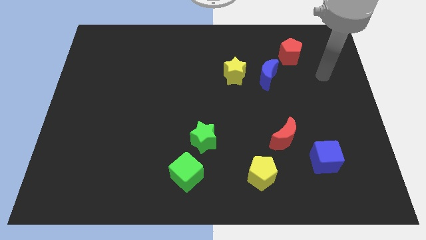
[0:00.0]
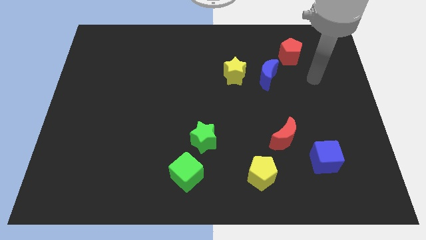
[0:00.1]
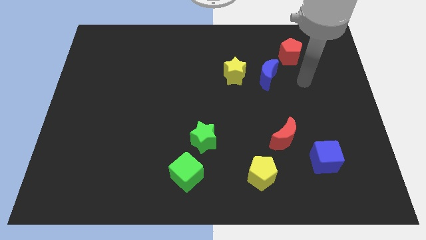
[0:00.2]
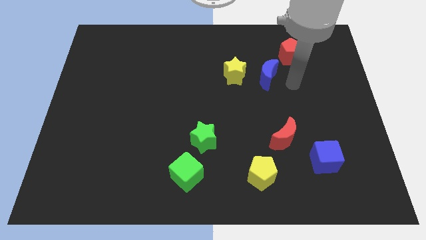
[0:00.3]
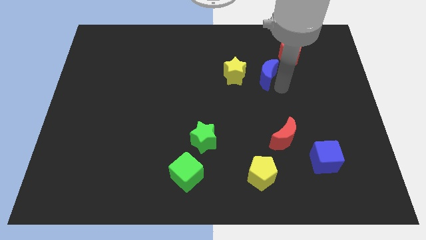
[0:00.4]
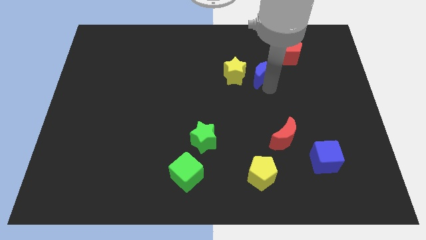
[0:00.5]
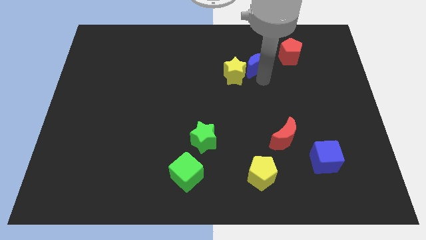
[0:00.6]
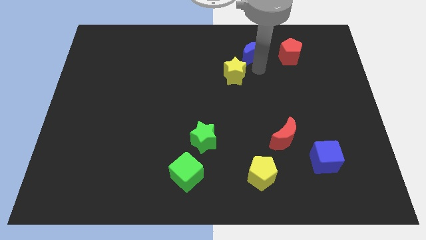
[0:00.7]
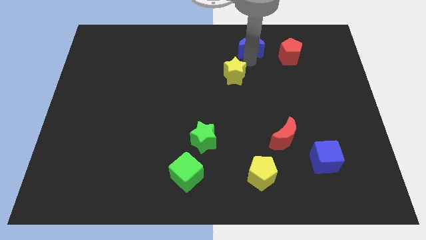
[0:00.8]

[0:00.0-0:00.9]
move the yellow star away from the blue moon

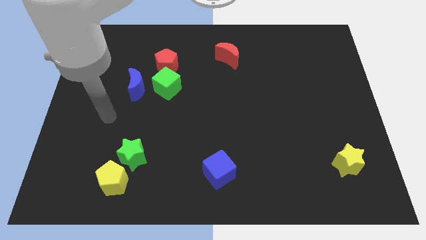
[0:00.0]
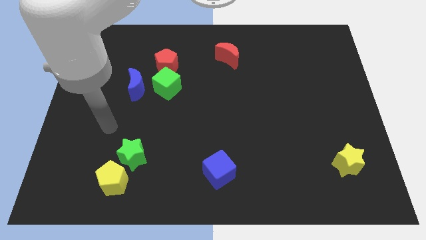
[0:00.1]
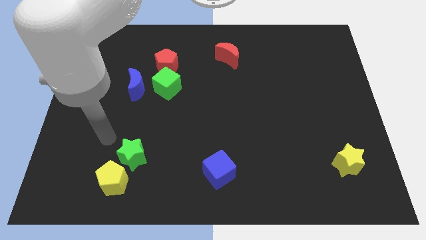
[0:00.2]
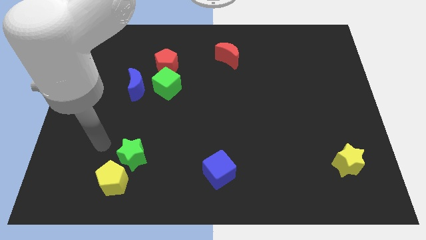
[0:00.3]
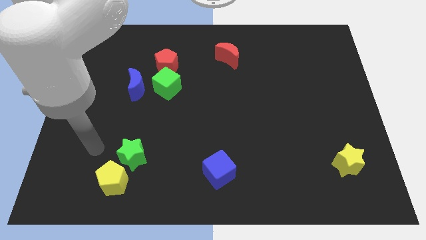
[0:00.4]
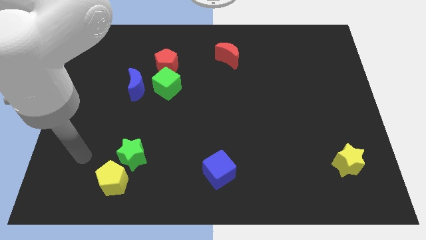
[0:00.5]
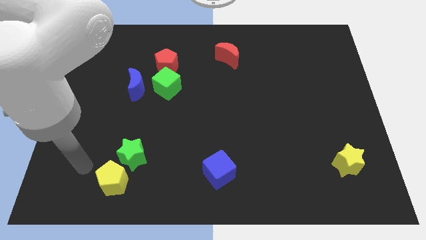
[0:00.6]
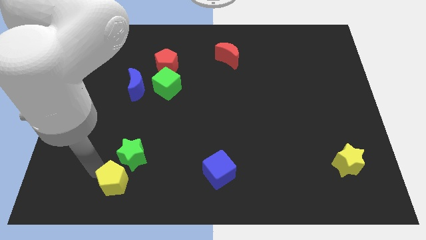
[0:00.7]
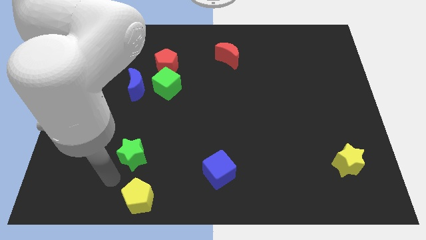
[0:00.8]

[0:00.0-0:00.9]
pull the green star apart from the yellow pentagon

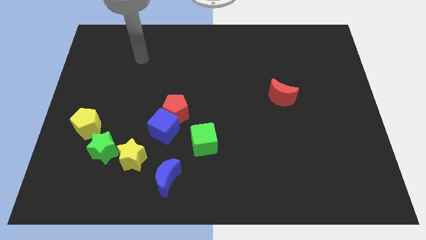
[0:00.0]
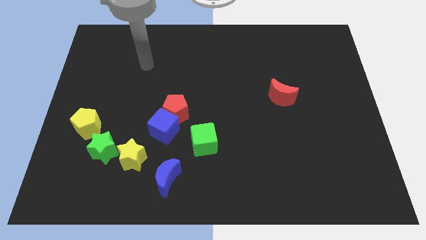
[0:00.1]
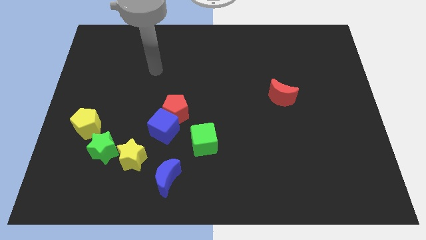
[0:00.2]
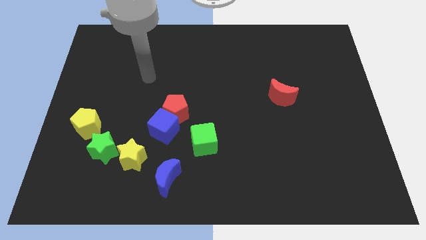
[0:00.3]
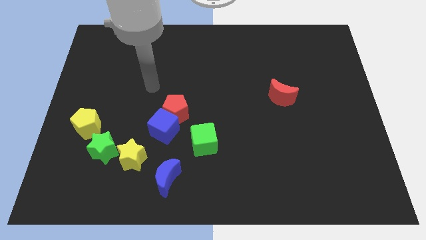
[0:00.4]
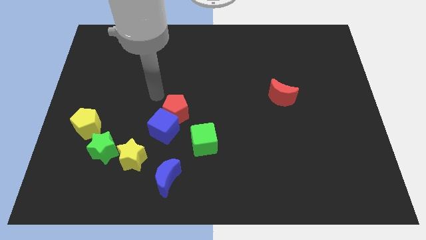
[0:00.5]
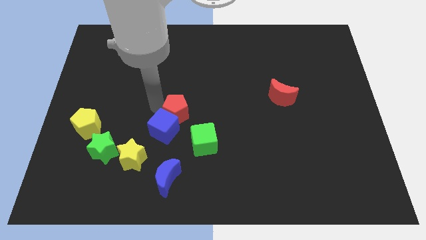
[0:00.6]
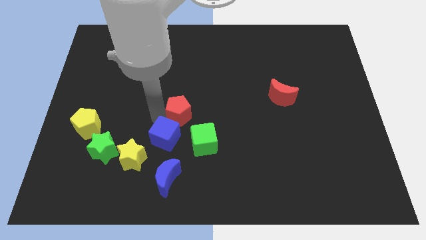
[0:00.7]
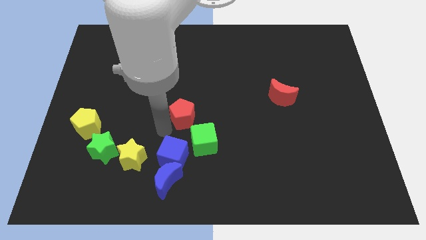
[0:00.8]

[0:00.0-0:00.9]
pull the red pentagon apart from the blue cube

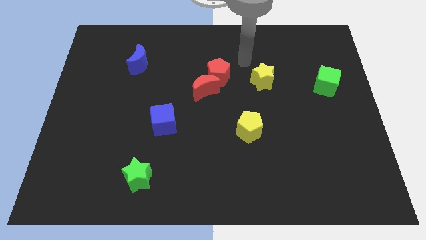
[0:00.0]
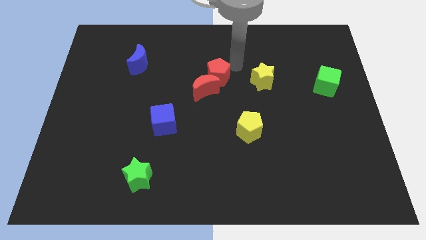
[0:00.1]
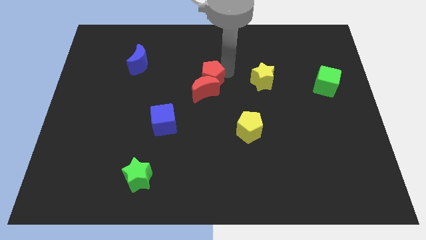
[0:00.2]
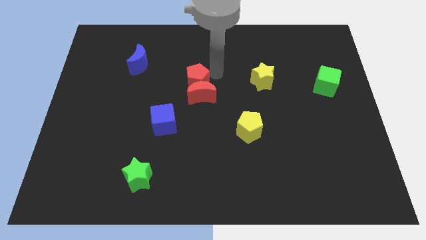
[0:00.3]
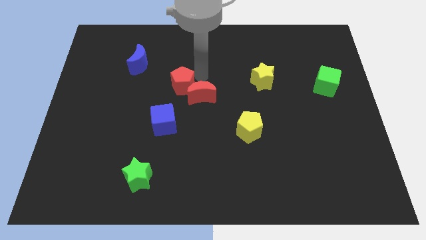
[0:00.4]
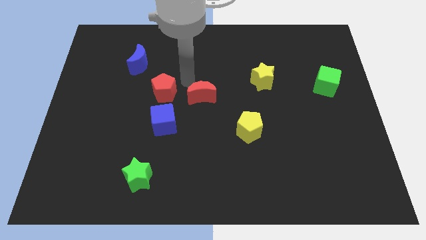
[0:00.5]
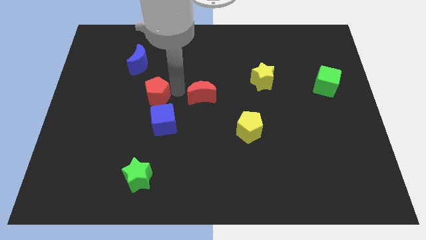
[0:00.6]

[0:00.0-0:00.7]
separate the red moon from the red pentagon

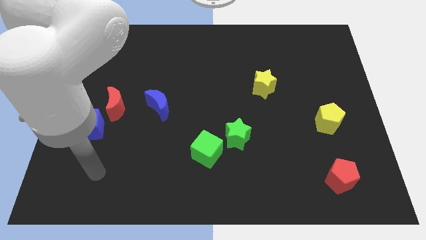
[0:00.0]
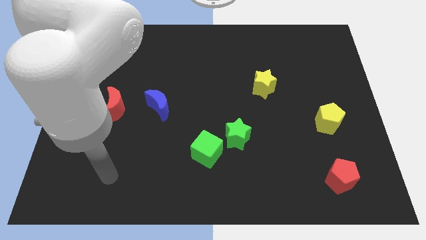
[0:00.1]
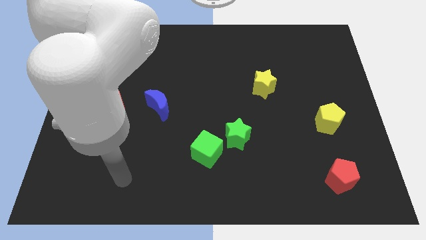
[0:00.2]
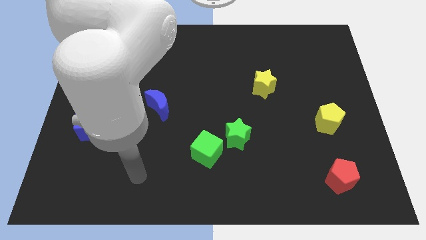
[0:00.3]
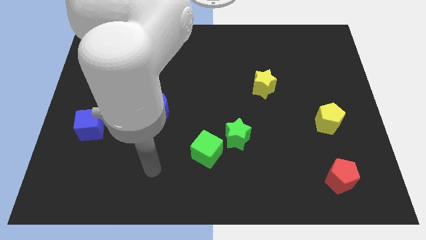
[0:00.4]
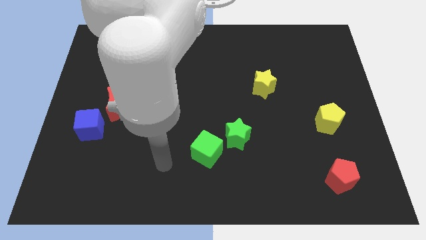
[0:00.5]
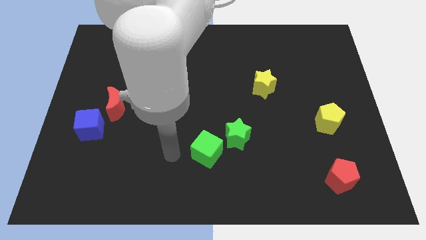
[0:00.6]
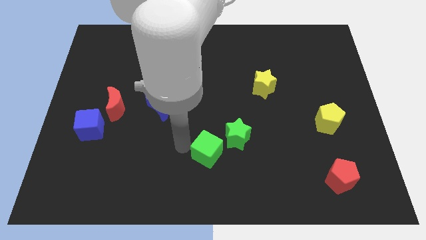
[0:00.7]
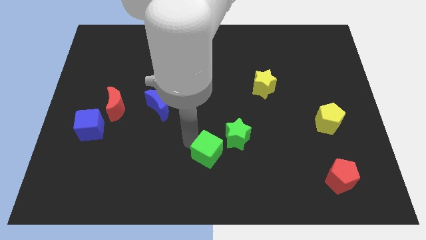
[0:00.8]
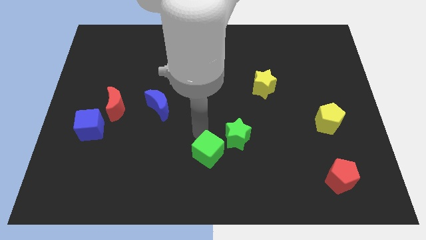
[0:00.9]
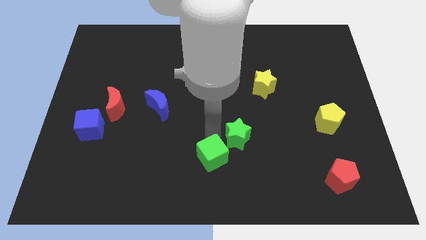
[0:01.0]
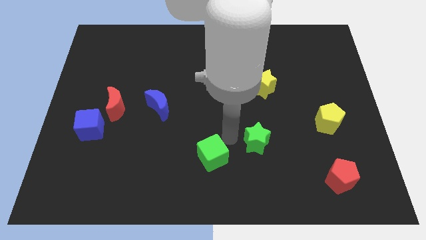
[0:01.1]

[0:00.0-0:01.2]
pull the green cube apart from the green star

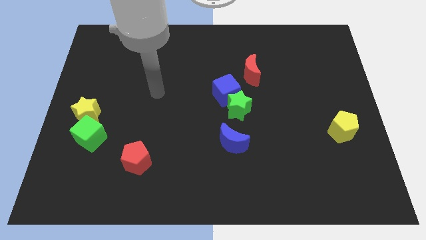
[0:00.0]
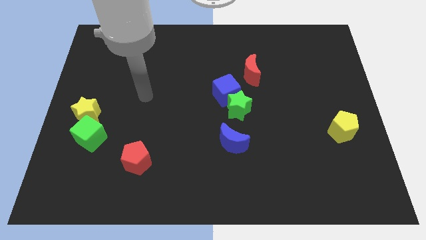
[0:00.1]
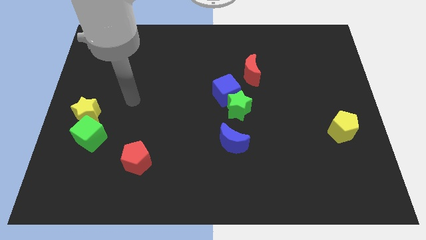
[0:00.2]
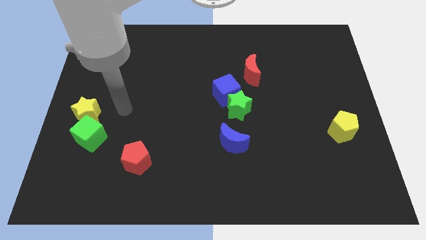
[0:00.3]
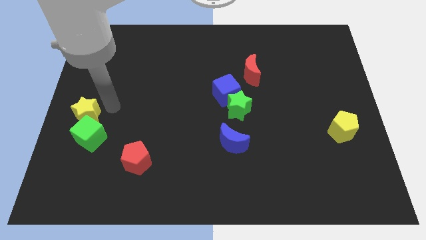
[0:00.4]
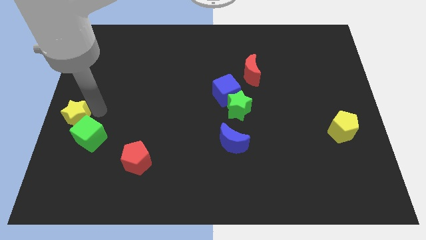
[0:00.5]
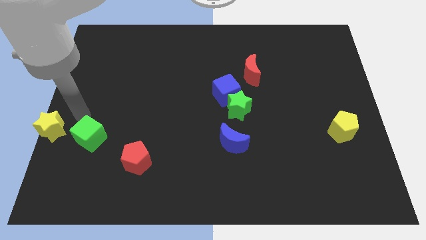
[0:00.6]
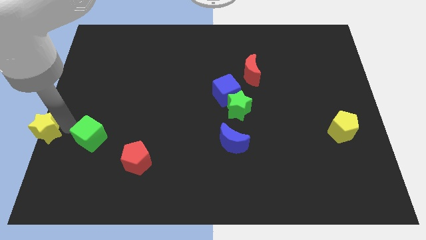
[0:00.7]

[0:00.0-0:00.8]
pull the green cube apart from the yellow star

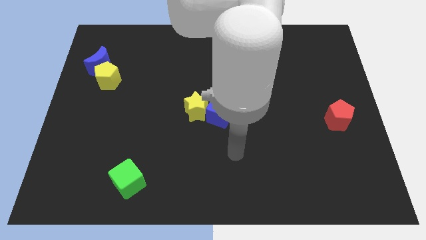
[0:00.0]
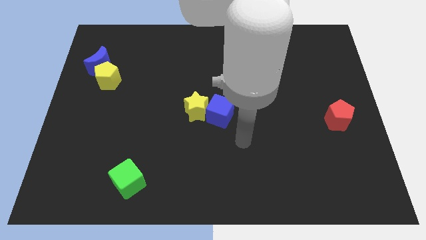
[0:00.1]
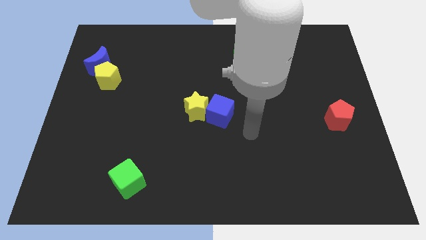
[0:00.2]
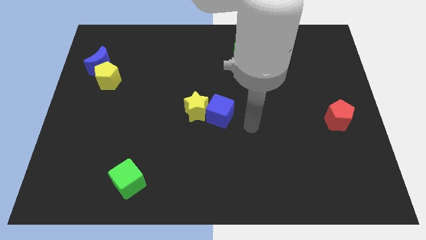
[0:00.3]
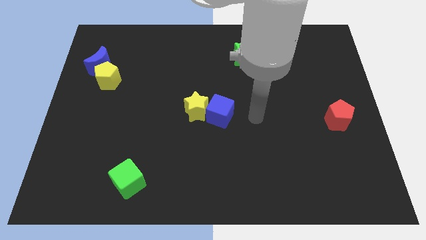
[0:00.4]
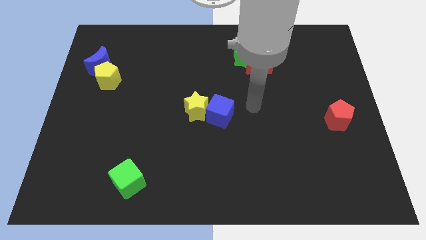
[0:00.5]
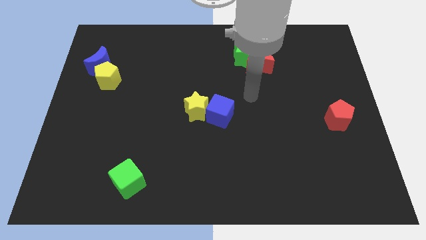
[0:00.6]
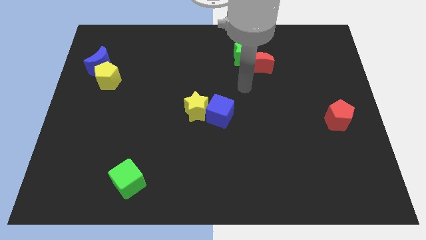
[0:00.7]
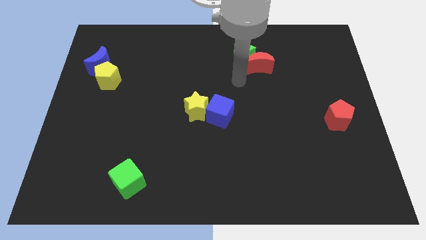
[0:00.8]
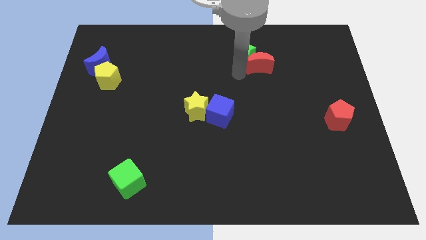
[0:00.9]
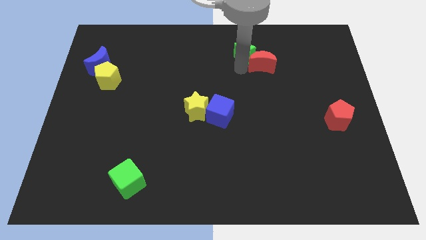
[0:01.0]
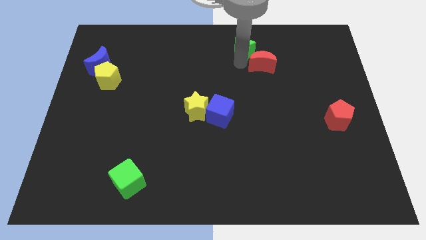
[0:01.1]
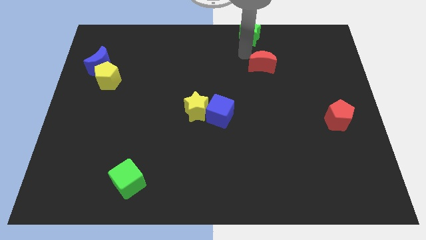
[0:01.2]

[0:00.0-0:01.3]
move the red moon away from the green star

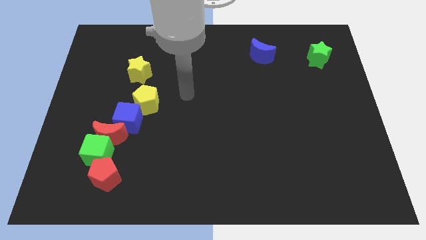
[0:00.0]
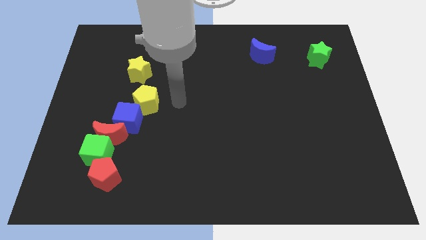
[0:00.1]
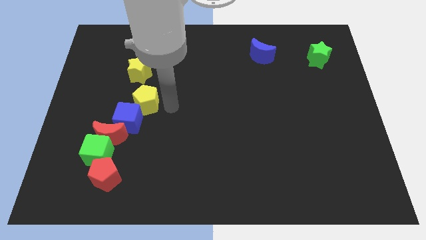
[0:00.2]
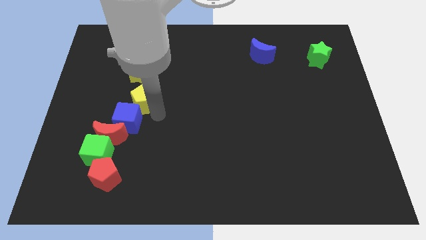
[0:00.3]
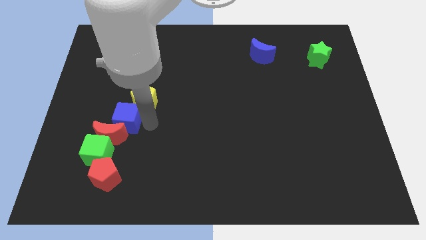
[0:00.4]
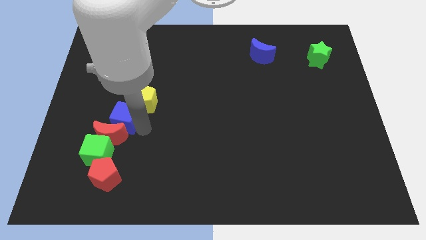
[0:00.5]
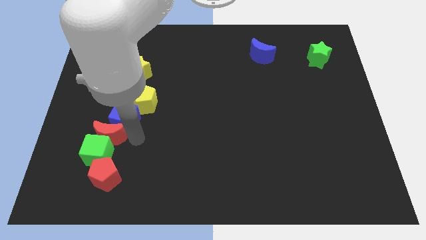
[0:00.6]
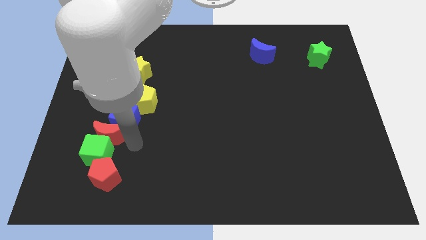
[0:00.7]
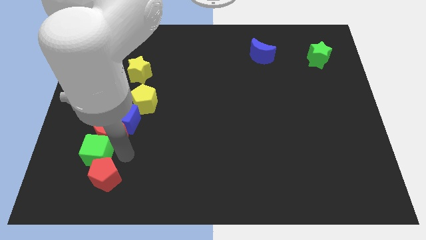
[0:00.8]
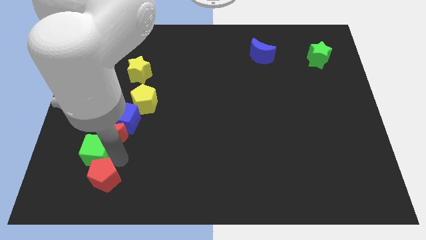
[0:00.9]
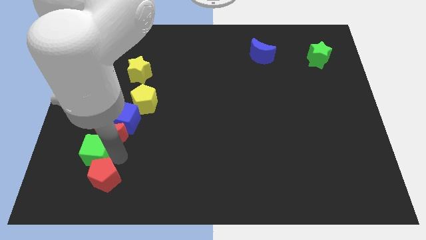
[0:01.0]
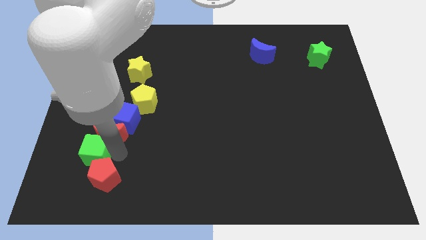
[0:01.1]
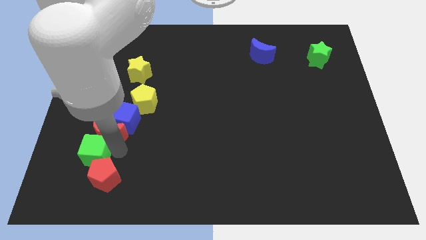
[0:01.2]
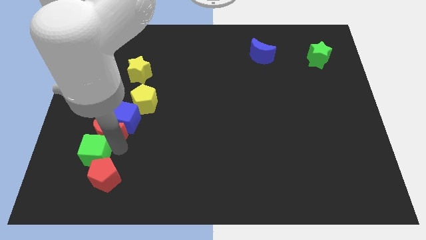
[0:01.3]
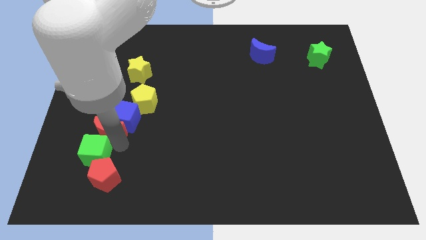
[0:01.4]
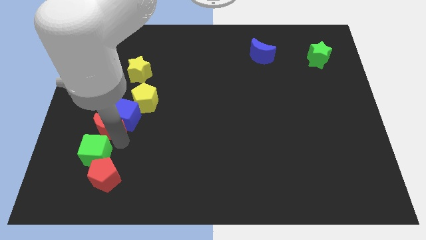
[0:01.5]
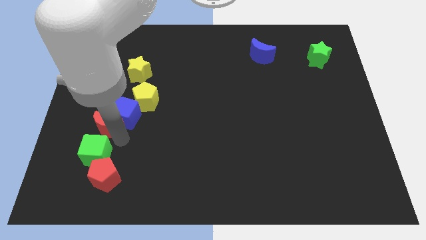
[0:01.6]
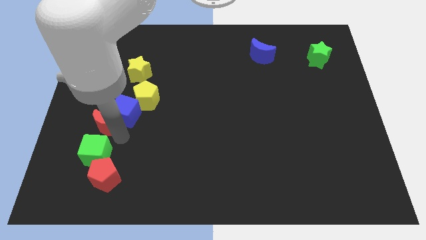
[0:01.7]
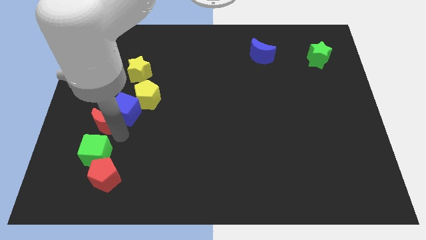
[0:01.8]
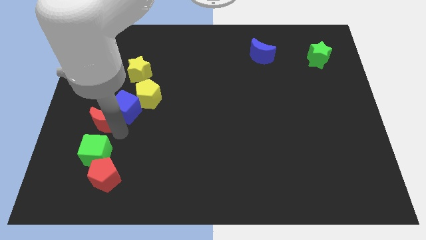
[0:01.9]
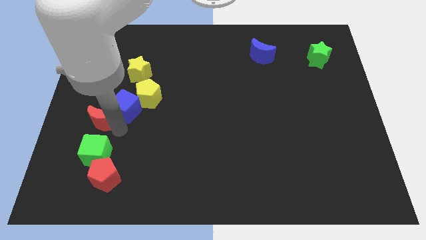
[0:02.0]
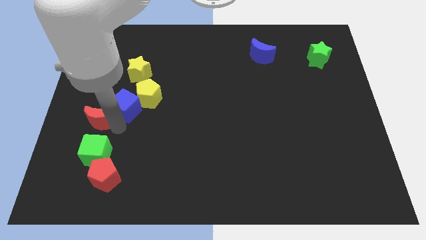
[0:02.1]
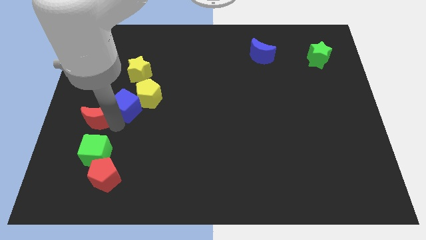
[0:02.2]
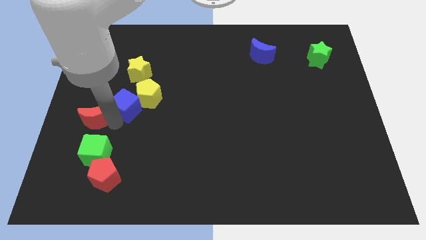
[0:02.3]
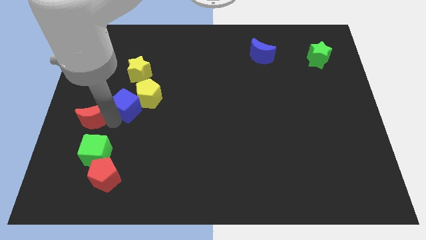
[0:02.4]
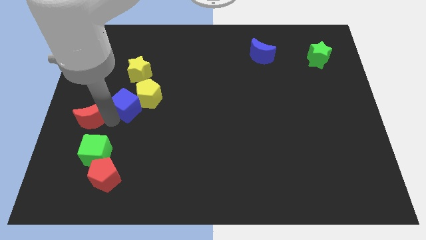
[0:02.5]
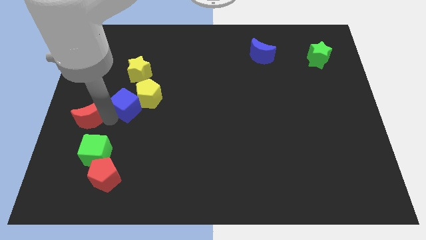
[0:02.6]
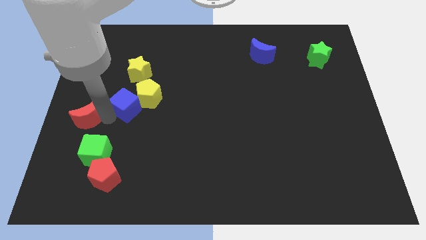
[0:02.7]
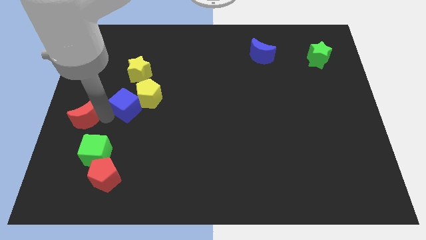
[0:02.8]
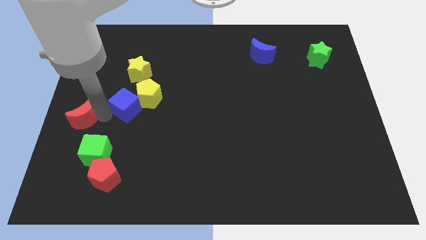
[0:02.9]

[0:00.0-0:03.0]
pull the red moon apart from the green cube, blue cube, and red pentagon
